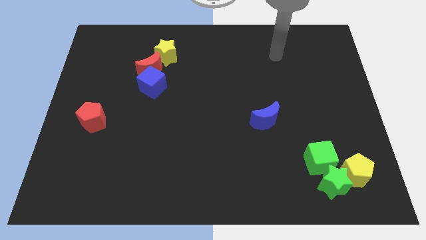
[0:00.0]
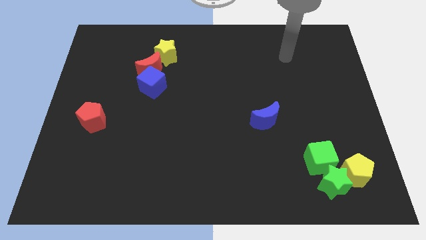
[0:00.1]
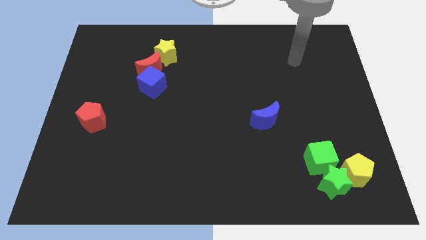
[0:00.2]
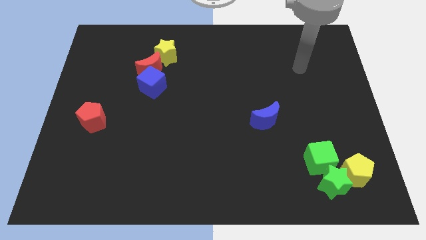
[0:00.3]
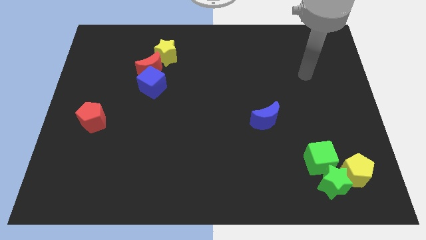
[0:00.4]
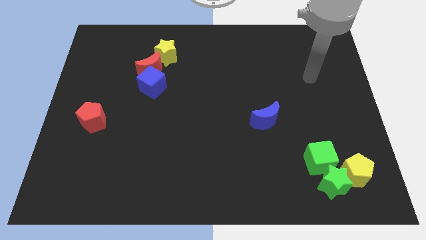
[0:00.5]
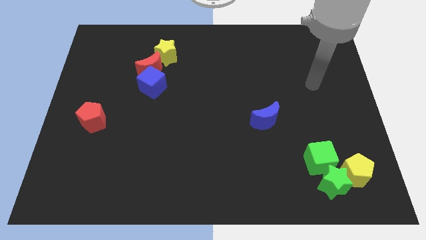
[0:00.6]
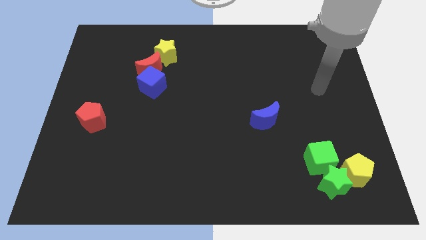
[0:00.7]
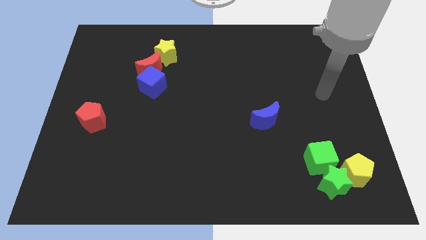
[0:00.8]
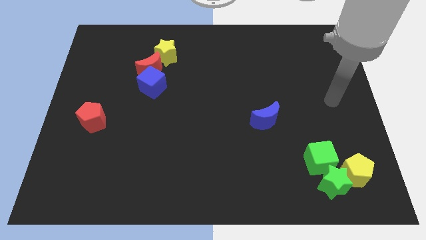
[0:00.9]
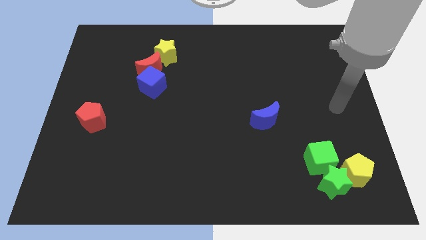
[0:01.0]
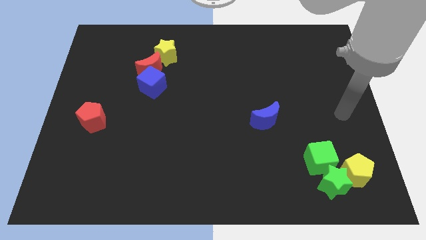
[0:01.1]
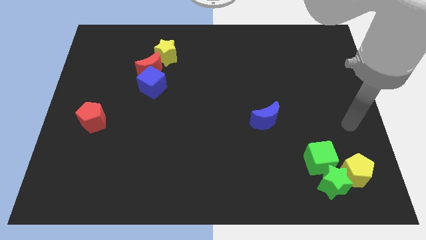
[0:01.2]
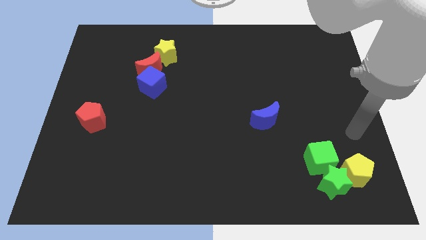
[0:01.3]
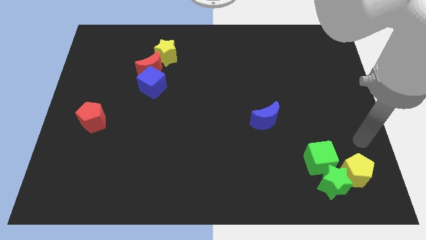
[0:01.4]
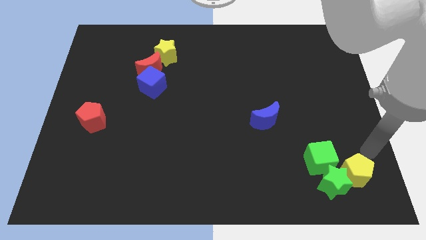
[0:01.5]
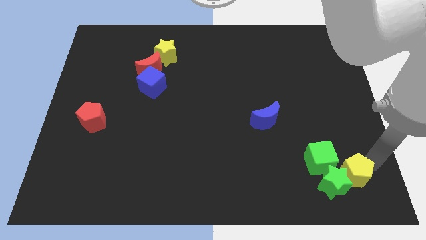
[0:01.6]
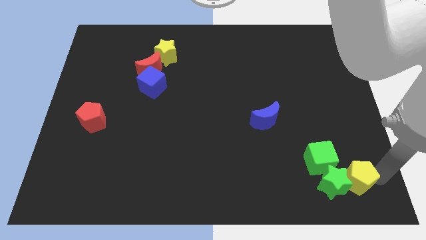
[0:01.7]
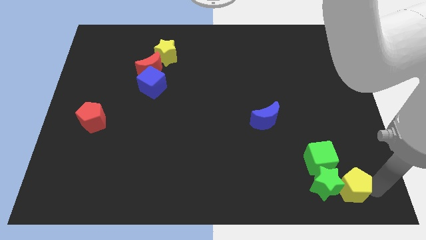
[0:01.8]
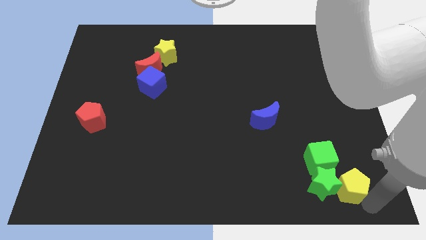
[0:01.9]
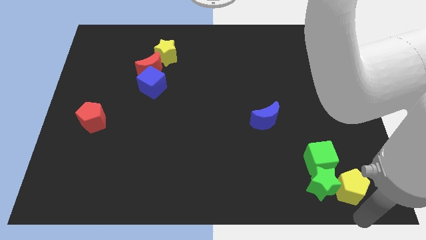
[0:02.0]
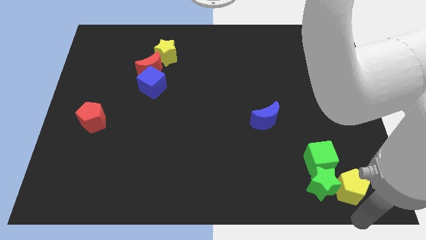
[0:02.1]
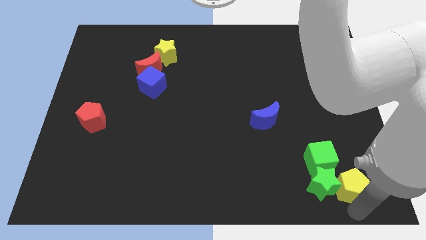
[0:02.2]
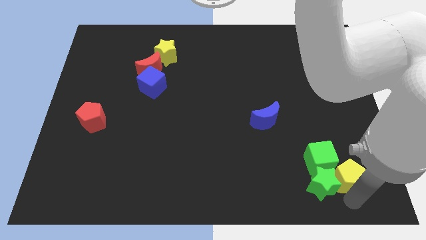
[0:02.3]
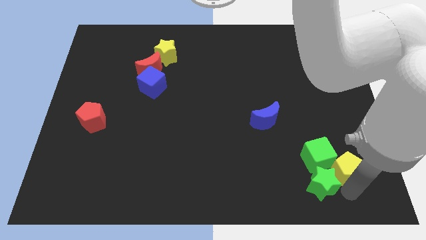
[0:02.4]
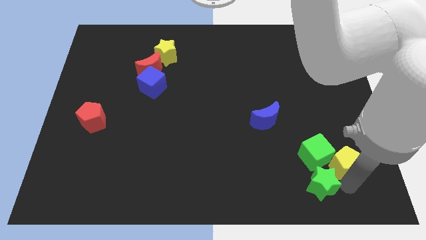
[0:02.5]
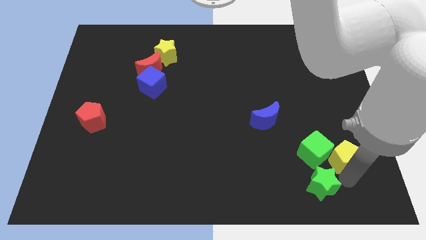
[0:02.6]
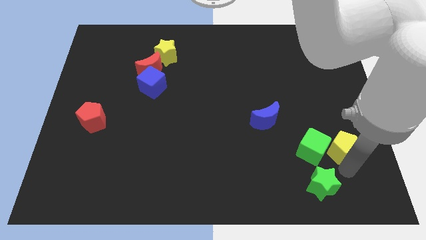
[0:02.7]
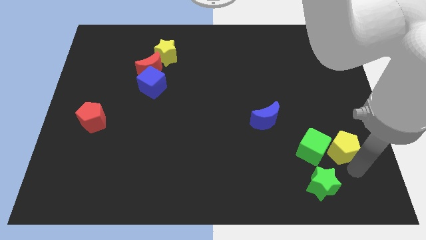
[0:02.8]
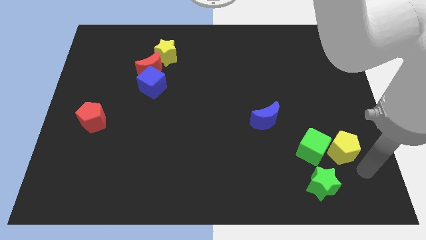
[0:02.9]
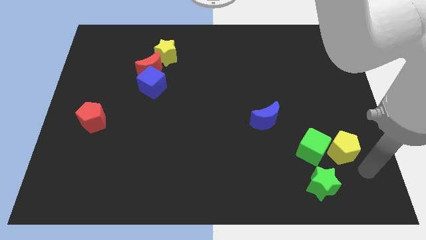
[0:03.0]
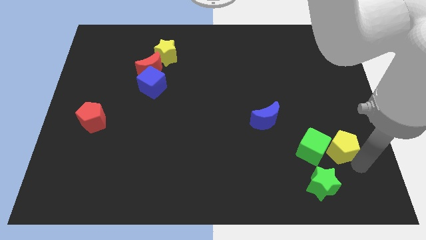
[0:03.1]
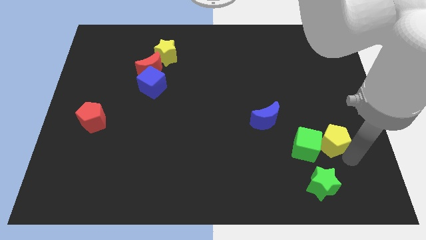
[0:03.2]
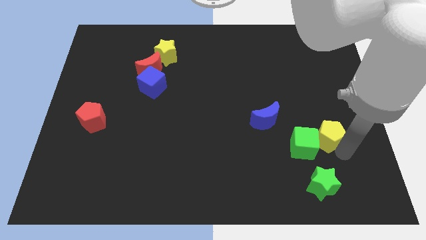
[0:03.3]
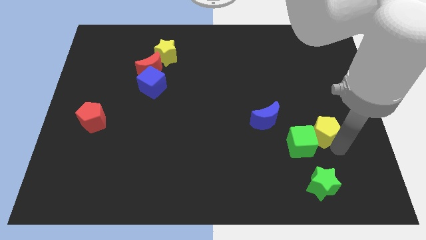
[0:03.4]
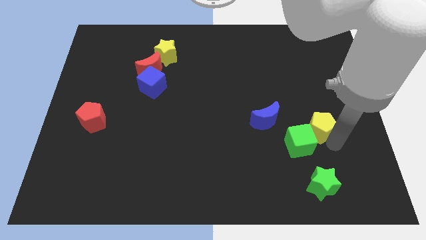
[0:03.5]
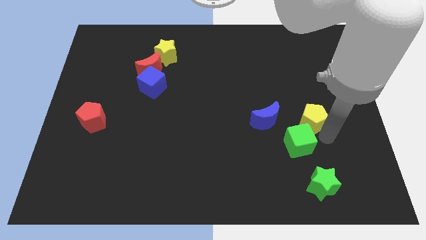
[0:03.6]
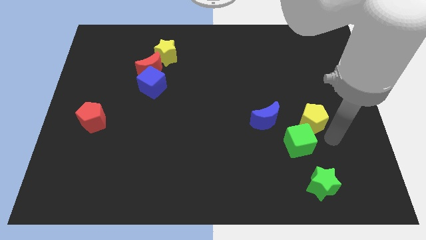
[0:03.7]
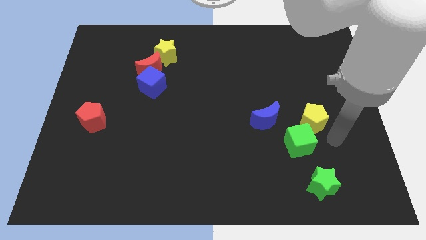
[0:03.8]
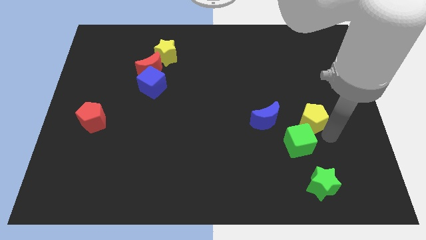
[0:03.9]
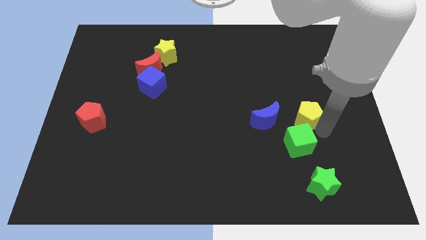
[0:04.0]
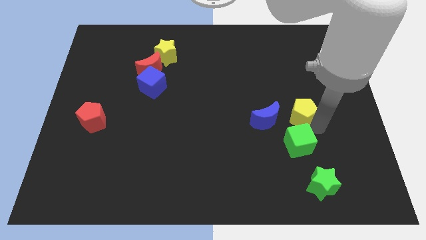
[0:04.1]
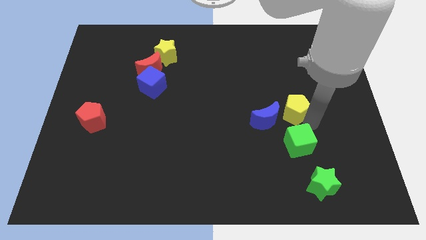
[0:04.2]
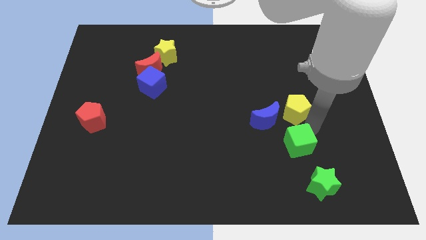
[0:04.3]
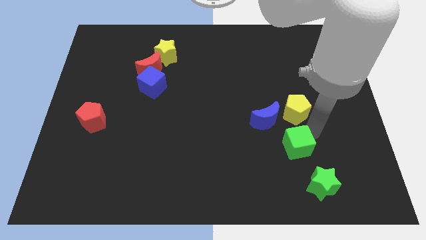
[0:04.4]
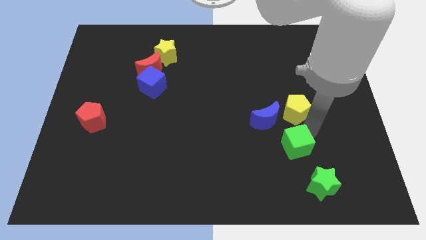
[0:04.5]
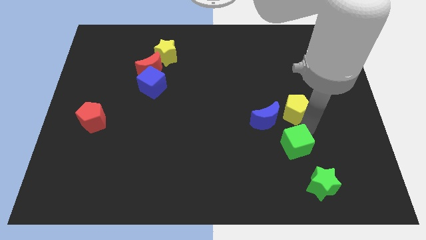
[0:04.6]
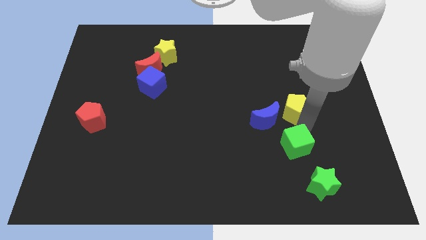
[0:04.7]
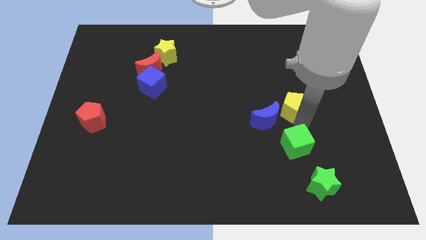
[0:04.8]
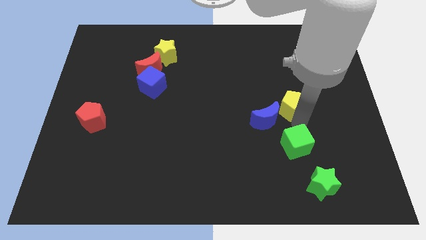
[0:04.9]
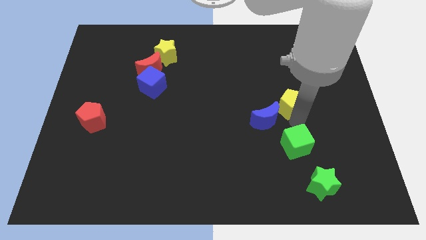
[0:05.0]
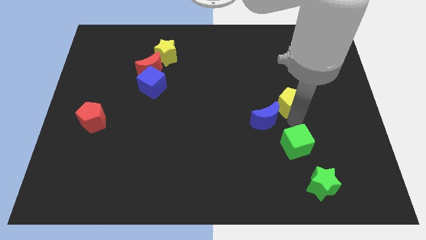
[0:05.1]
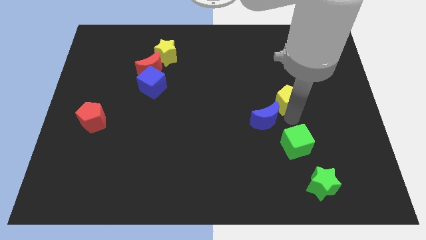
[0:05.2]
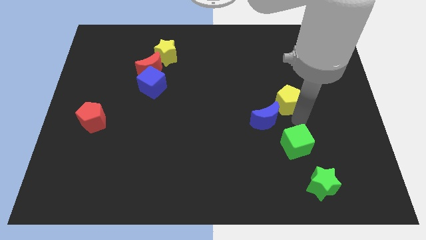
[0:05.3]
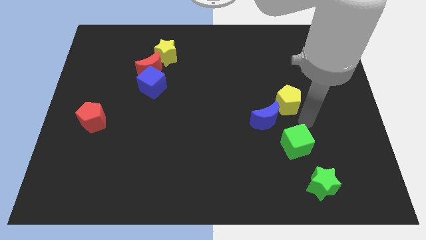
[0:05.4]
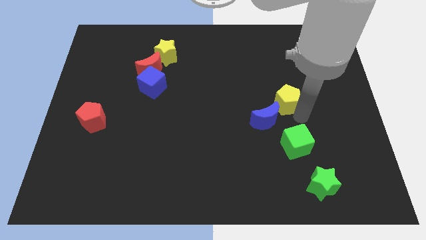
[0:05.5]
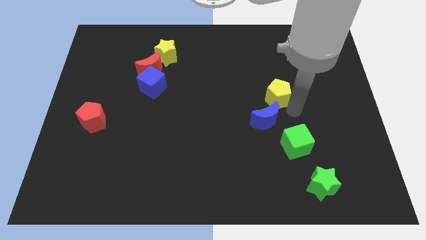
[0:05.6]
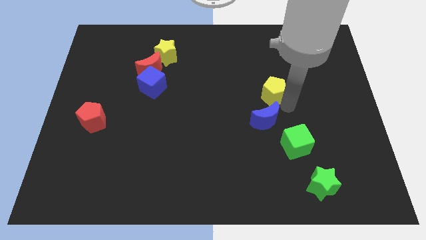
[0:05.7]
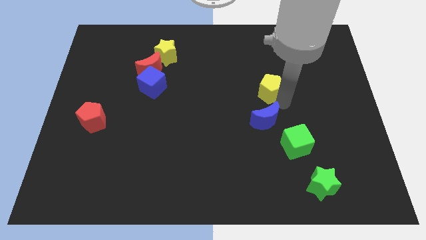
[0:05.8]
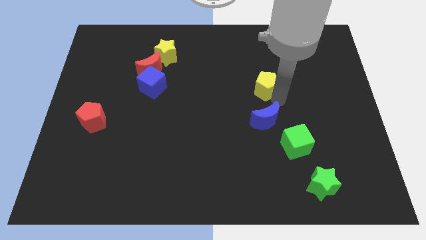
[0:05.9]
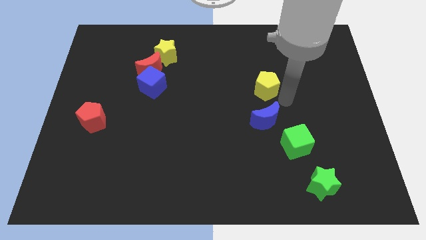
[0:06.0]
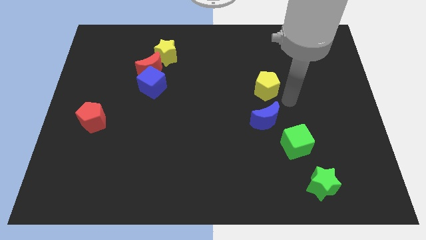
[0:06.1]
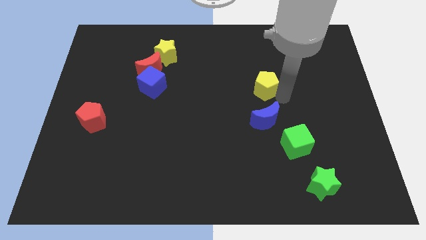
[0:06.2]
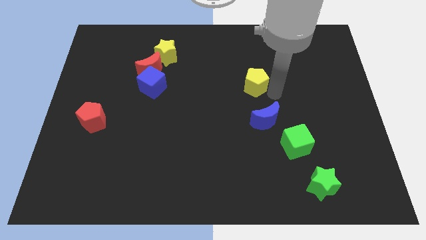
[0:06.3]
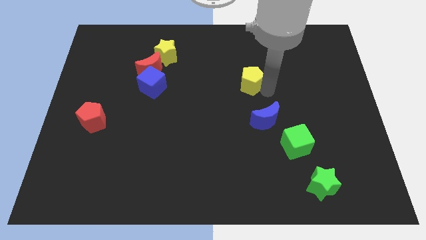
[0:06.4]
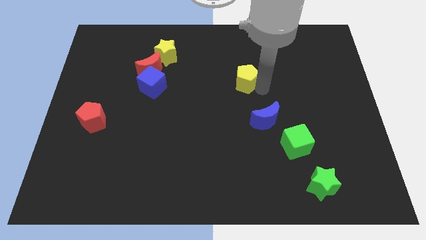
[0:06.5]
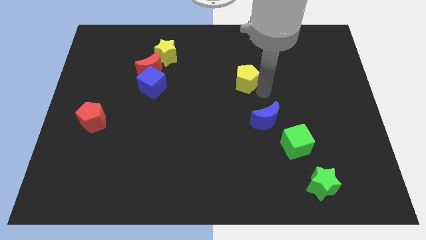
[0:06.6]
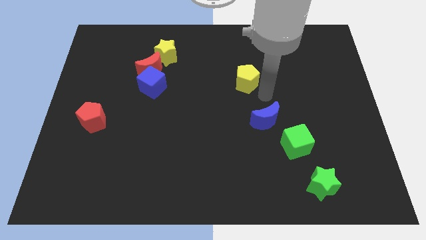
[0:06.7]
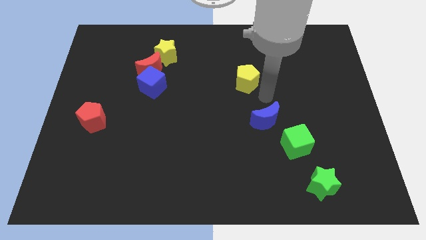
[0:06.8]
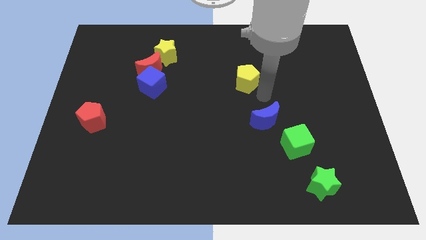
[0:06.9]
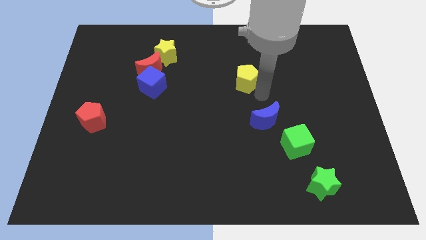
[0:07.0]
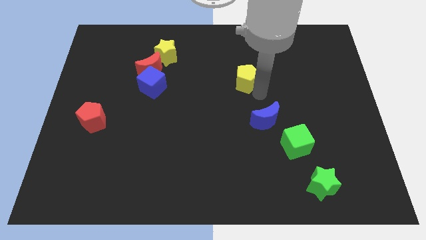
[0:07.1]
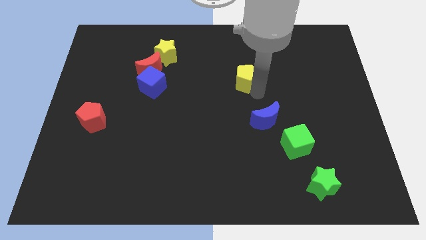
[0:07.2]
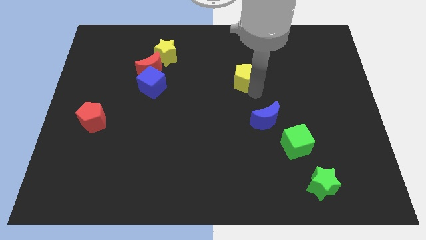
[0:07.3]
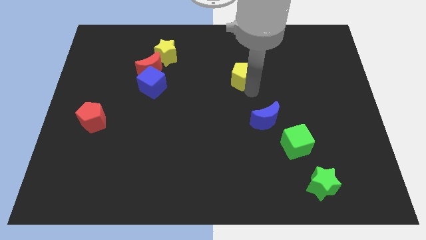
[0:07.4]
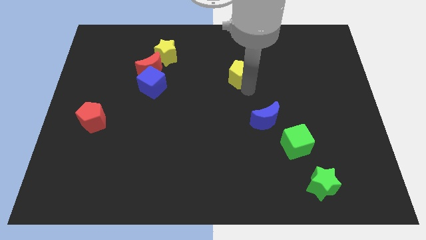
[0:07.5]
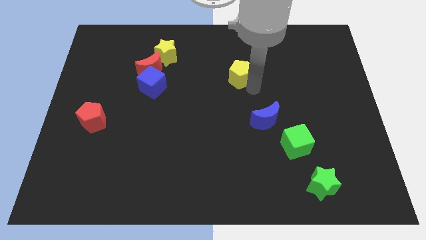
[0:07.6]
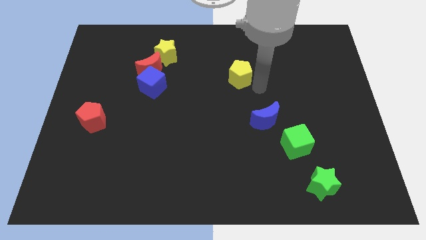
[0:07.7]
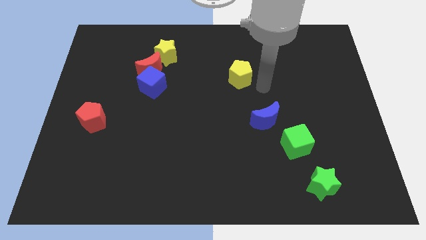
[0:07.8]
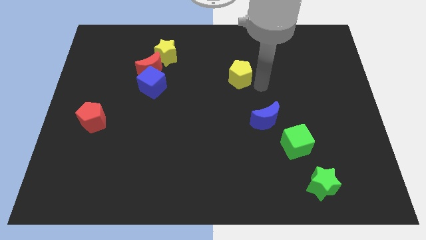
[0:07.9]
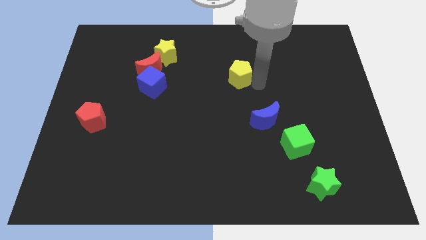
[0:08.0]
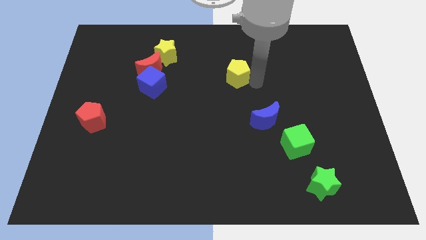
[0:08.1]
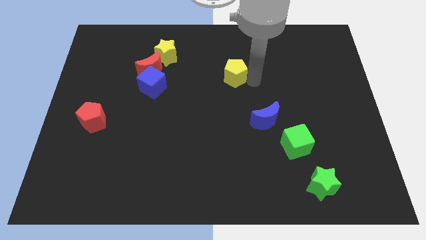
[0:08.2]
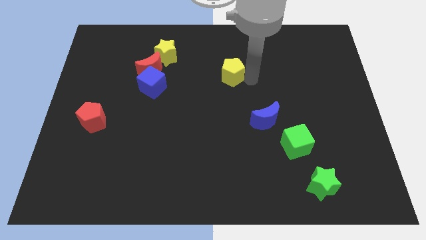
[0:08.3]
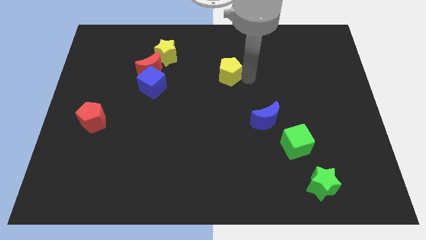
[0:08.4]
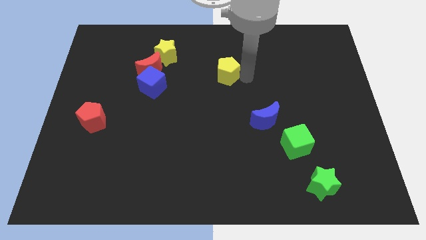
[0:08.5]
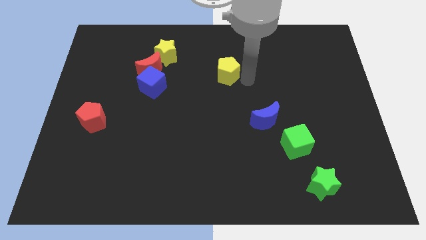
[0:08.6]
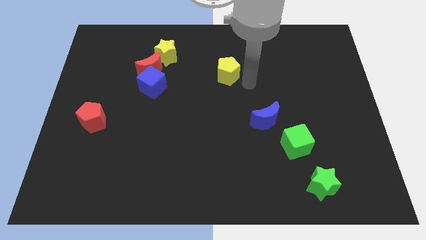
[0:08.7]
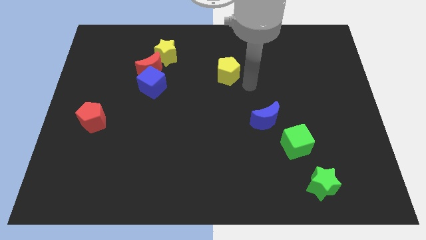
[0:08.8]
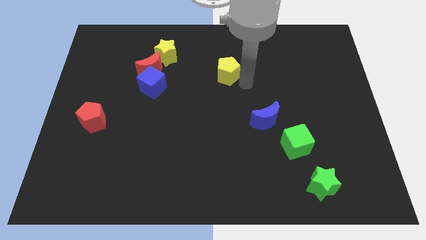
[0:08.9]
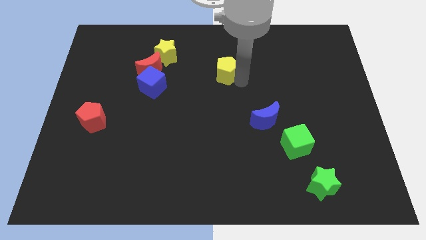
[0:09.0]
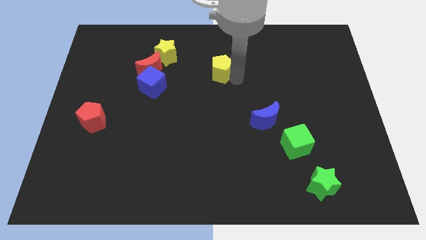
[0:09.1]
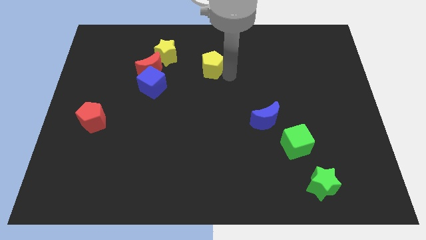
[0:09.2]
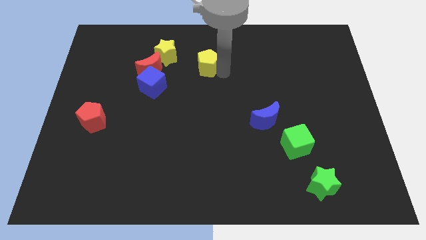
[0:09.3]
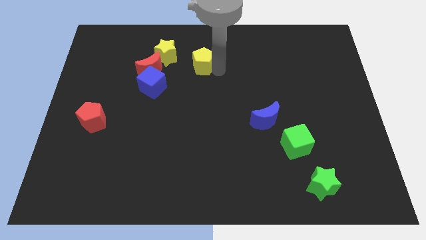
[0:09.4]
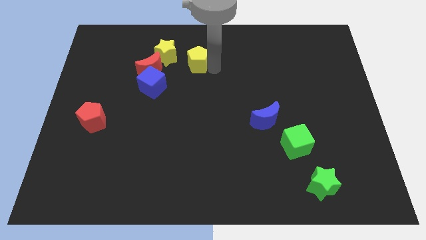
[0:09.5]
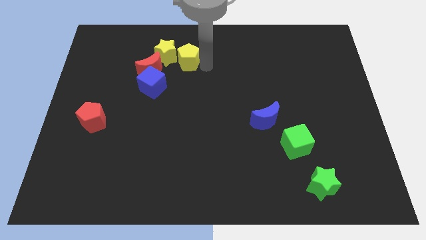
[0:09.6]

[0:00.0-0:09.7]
slide the yellow pentagon to the yellow star
